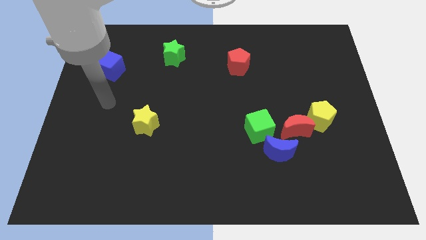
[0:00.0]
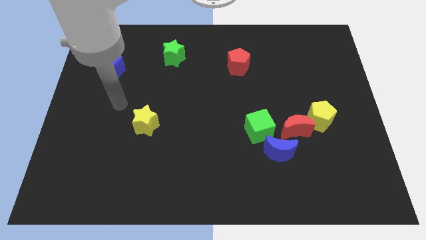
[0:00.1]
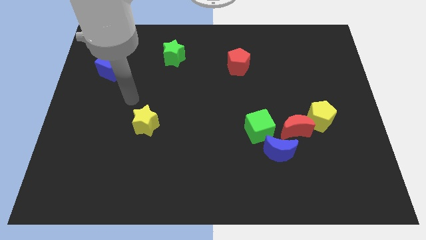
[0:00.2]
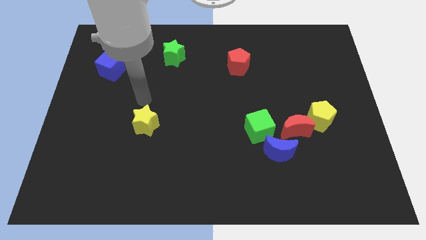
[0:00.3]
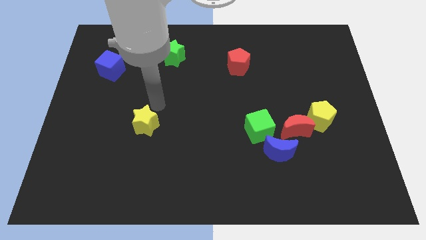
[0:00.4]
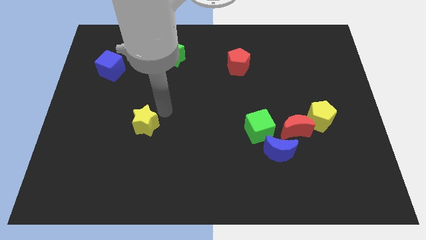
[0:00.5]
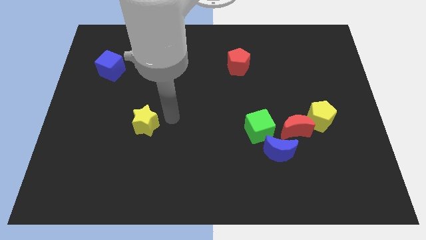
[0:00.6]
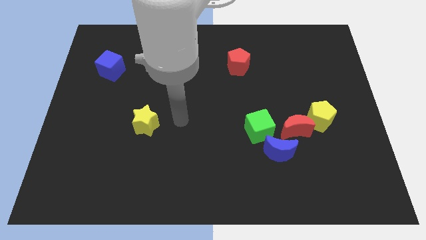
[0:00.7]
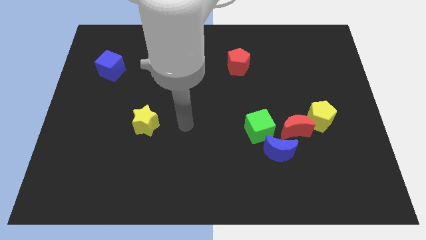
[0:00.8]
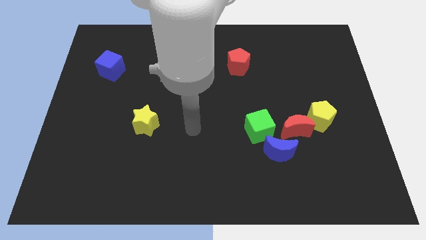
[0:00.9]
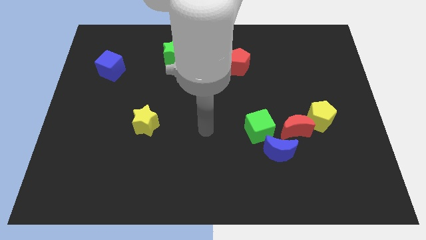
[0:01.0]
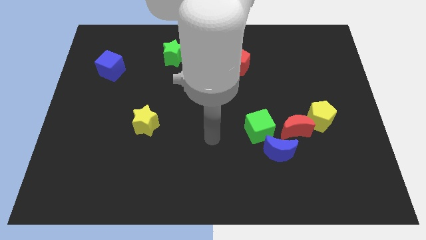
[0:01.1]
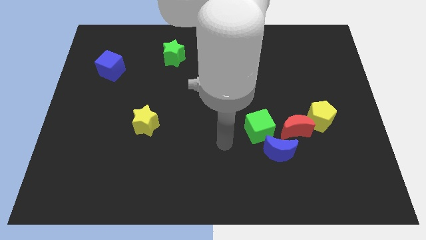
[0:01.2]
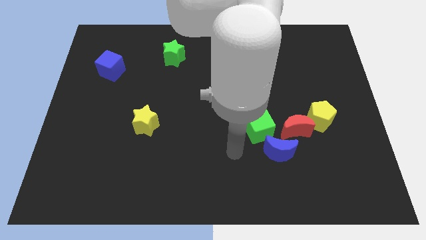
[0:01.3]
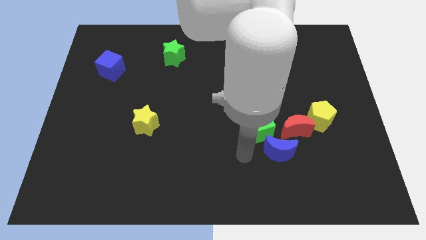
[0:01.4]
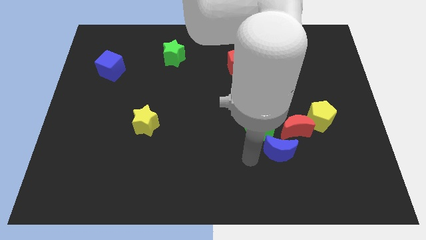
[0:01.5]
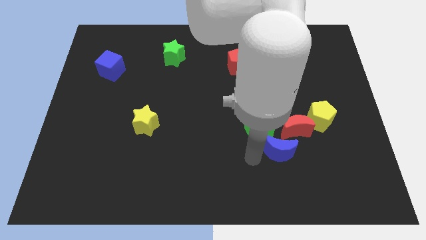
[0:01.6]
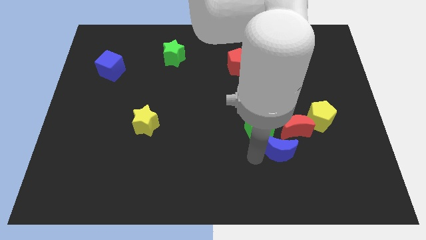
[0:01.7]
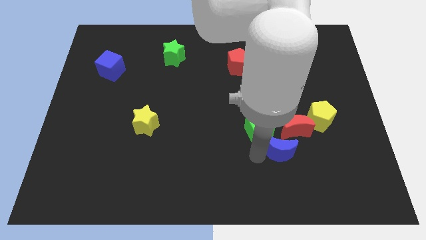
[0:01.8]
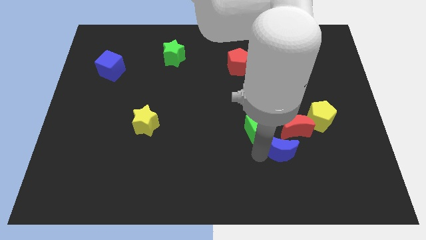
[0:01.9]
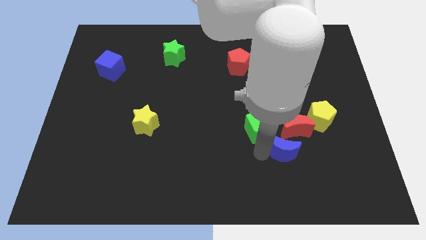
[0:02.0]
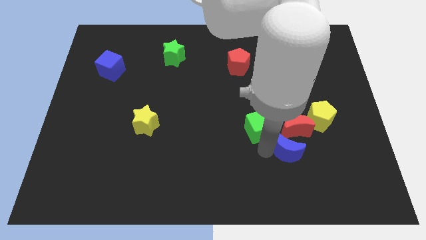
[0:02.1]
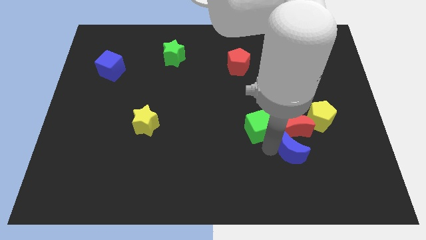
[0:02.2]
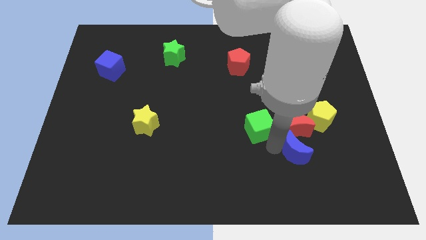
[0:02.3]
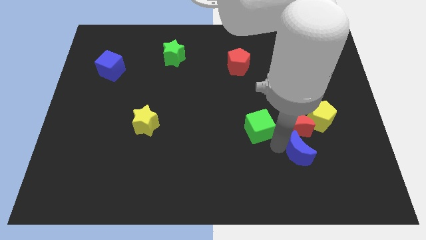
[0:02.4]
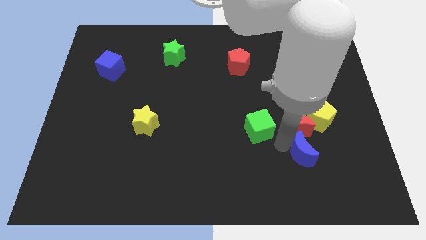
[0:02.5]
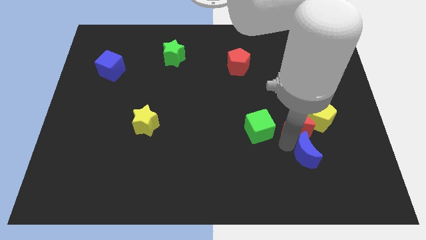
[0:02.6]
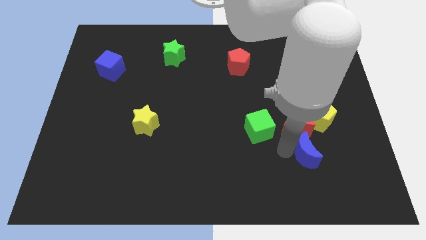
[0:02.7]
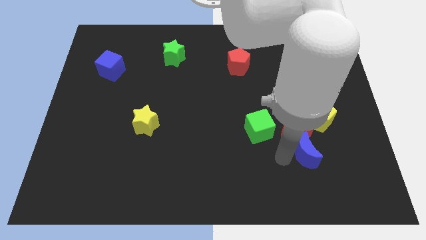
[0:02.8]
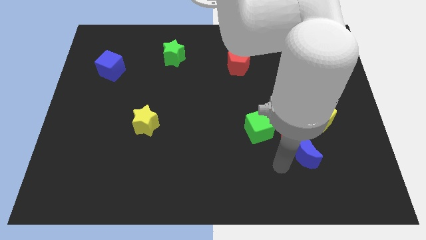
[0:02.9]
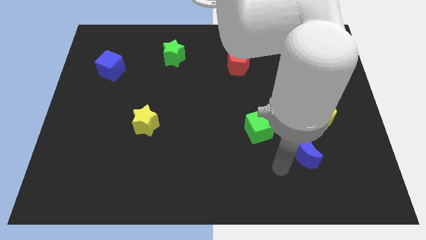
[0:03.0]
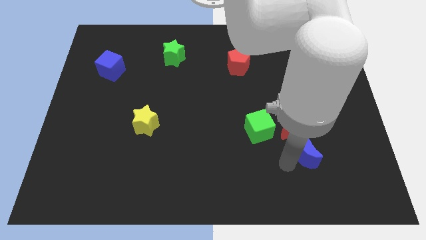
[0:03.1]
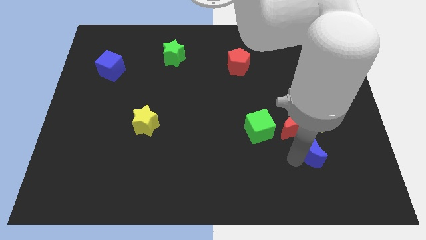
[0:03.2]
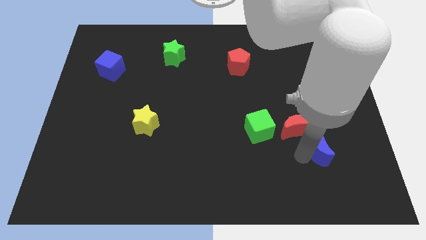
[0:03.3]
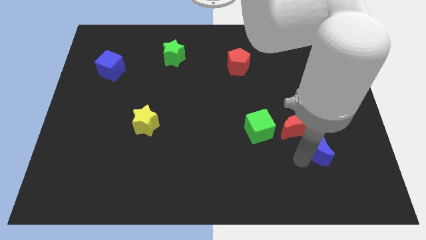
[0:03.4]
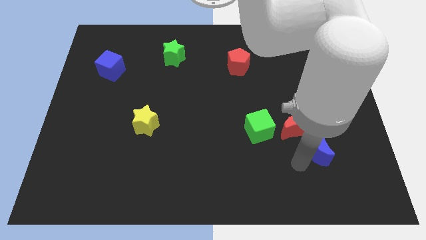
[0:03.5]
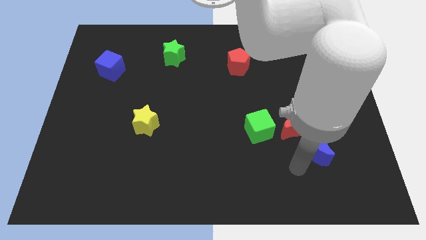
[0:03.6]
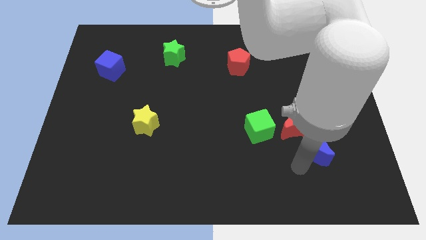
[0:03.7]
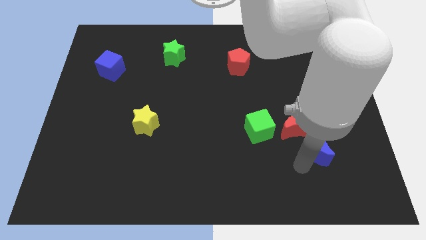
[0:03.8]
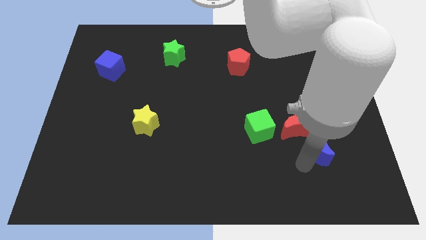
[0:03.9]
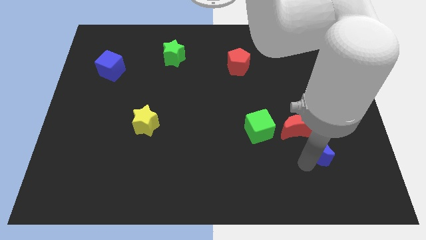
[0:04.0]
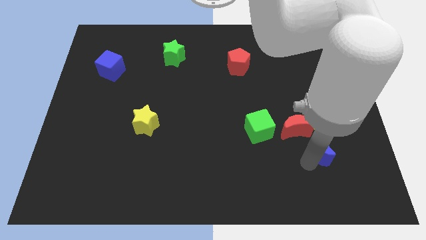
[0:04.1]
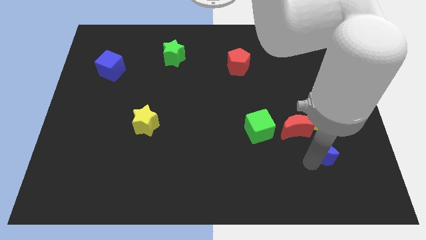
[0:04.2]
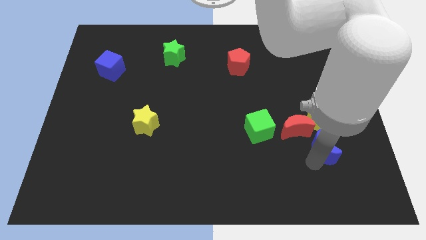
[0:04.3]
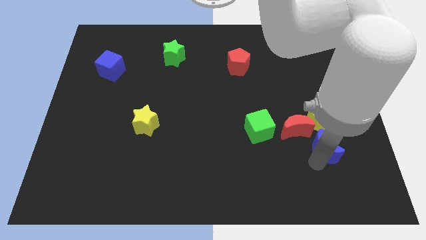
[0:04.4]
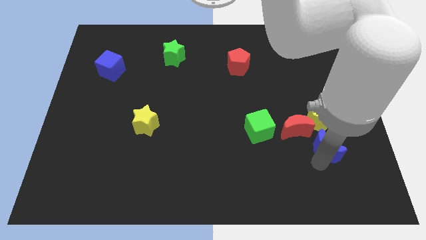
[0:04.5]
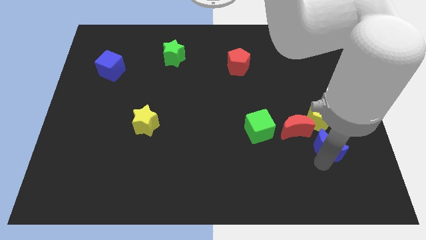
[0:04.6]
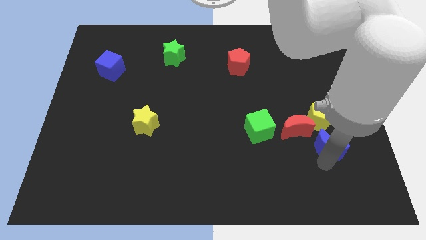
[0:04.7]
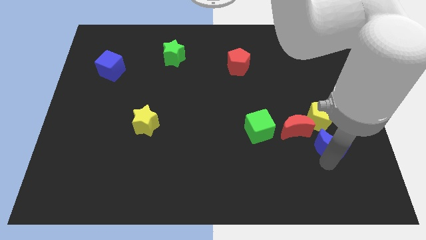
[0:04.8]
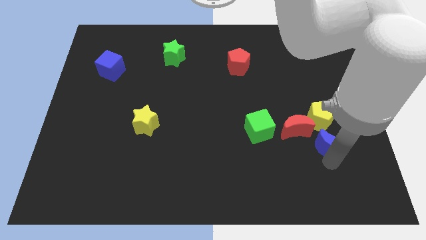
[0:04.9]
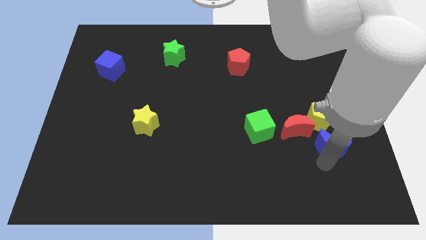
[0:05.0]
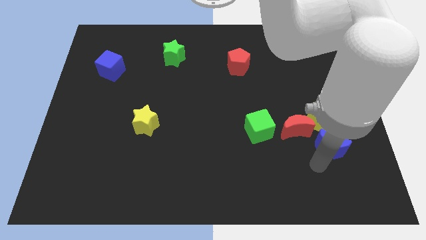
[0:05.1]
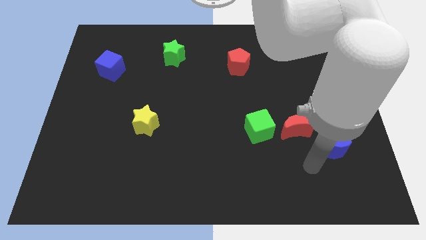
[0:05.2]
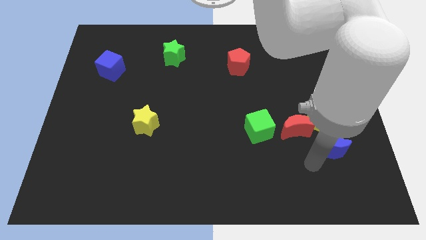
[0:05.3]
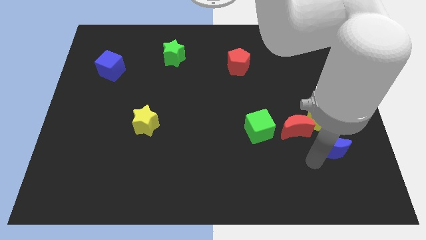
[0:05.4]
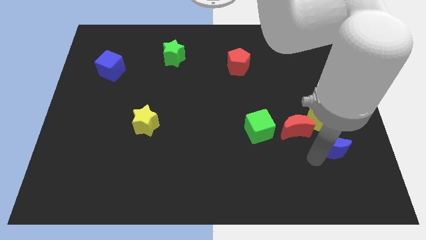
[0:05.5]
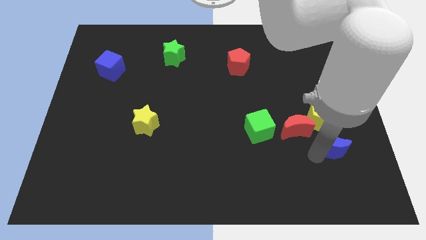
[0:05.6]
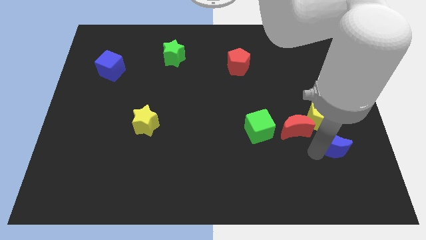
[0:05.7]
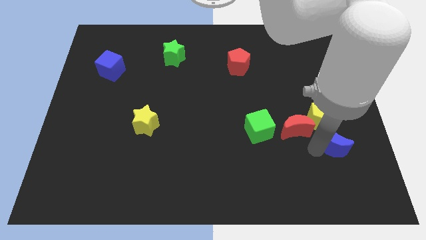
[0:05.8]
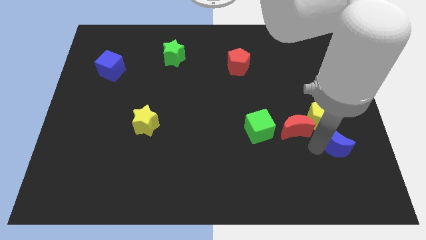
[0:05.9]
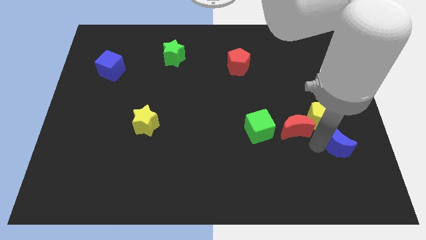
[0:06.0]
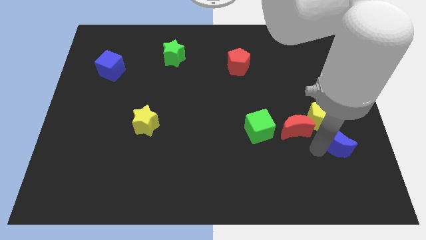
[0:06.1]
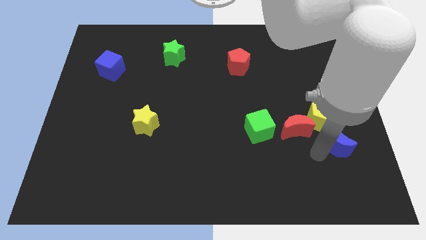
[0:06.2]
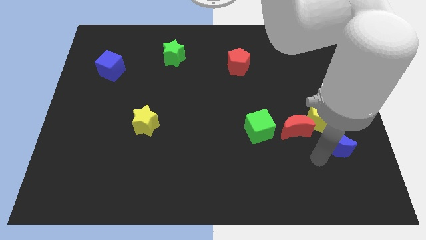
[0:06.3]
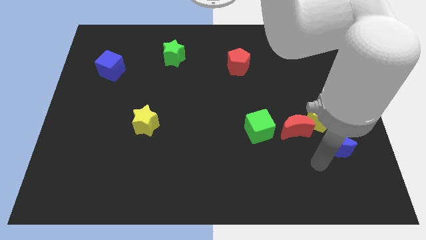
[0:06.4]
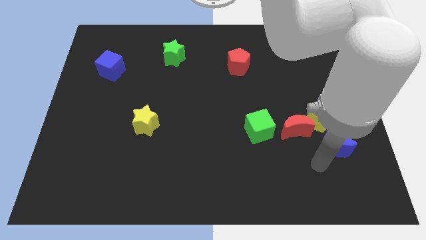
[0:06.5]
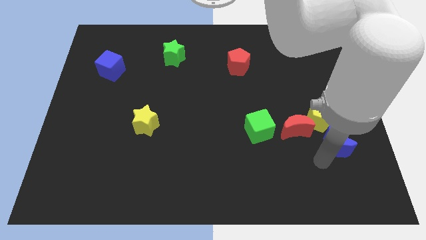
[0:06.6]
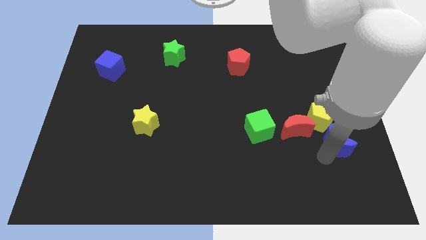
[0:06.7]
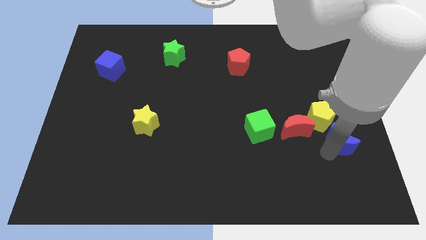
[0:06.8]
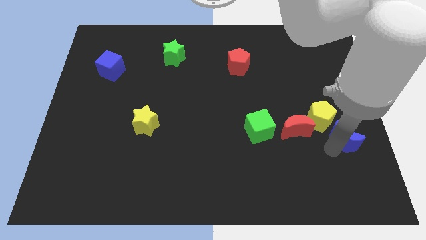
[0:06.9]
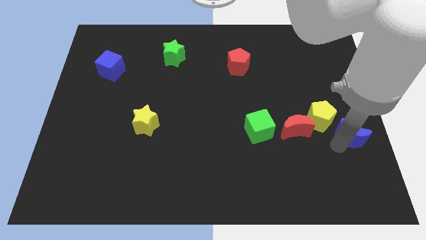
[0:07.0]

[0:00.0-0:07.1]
put the blue moon to the right side

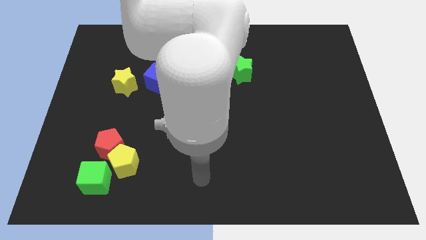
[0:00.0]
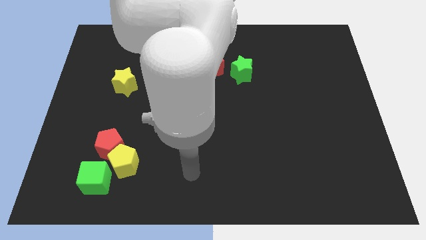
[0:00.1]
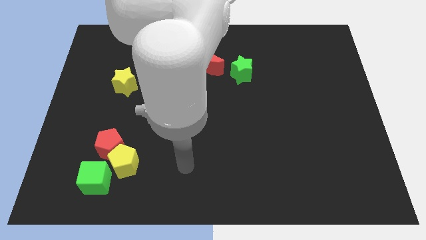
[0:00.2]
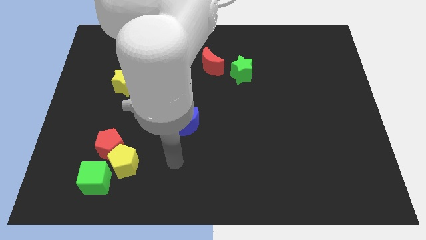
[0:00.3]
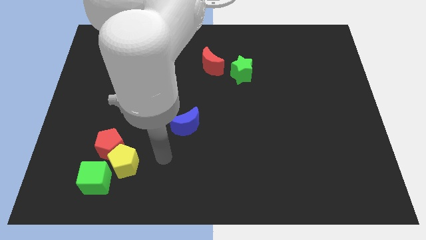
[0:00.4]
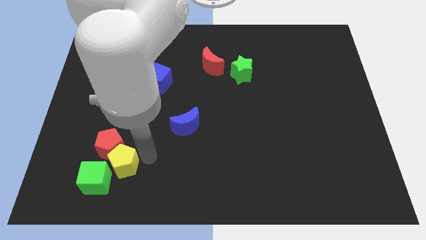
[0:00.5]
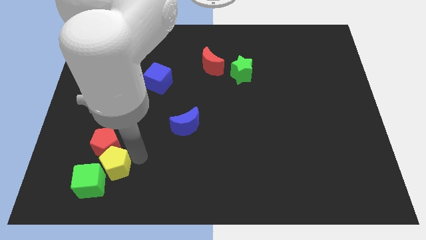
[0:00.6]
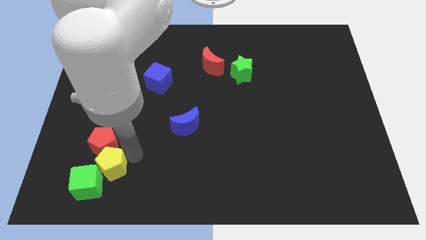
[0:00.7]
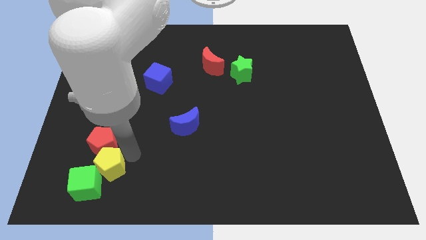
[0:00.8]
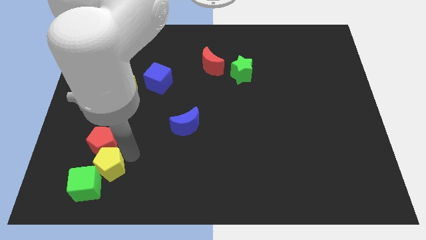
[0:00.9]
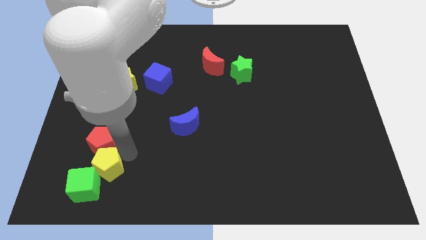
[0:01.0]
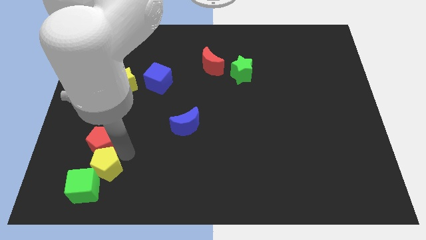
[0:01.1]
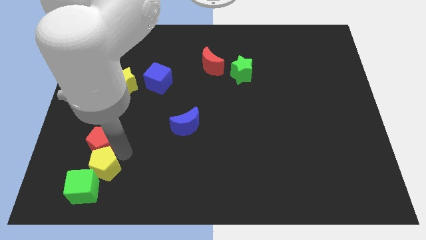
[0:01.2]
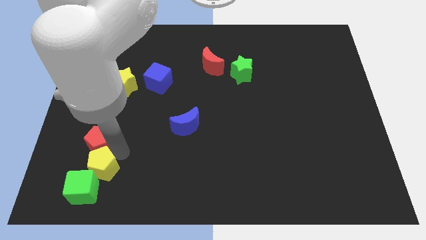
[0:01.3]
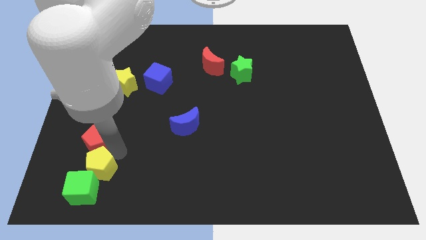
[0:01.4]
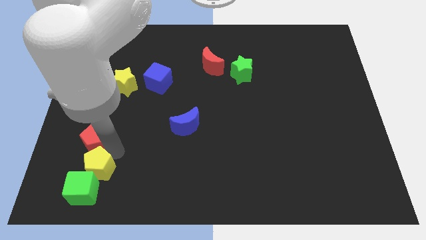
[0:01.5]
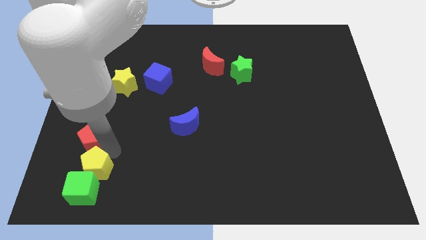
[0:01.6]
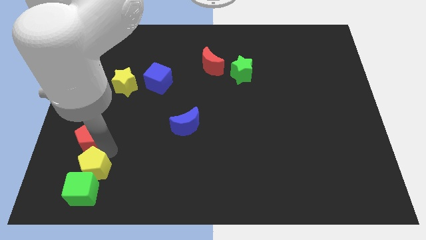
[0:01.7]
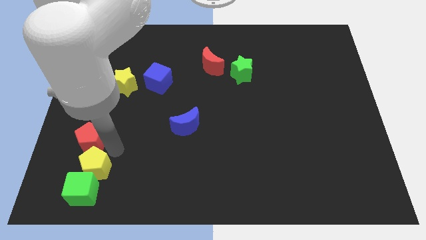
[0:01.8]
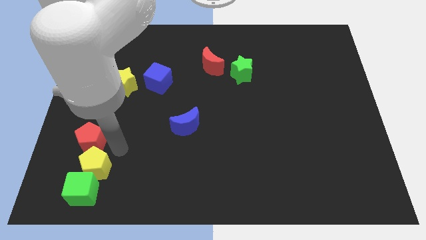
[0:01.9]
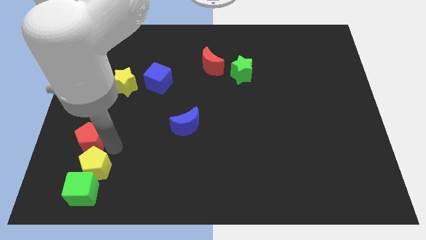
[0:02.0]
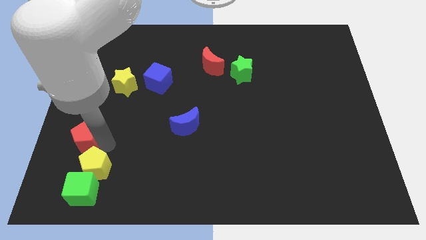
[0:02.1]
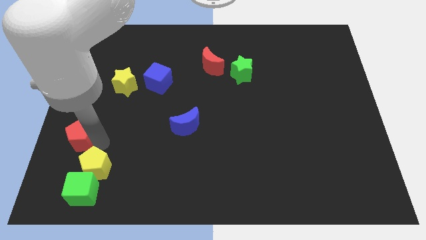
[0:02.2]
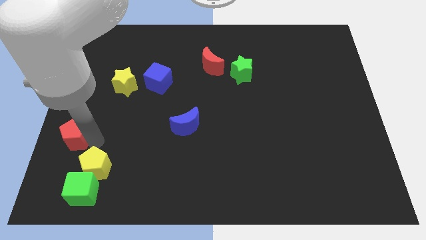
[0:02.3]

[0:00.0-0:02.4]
put the red pentagon to the center left
